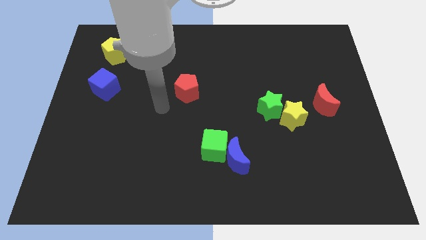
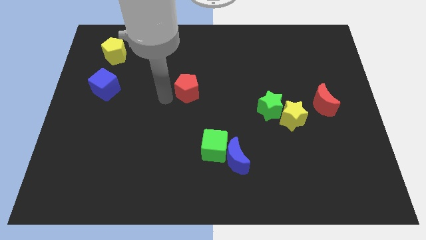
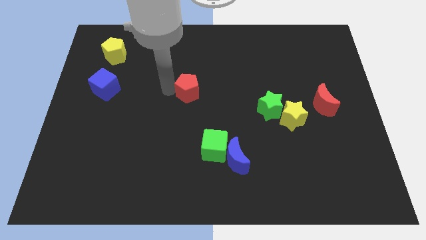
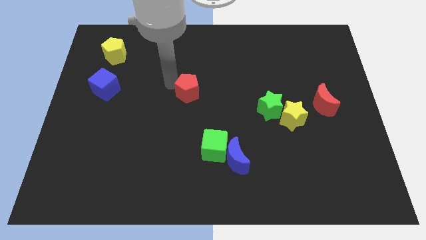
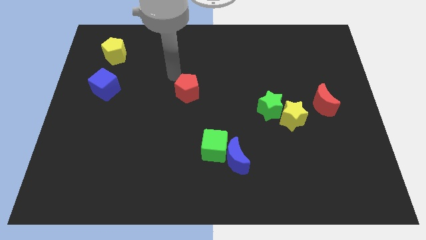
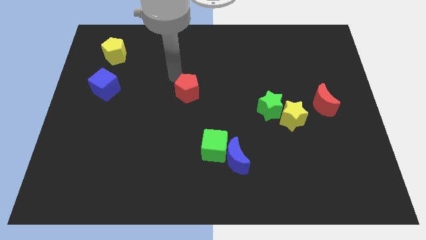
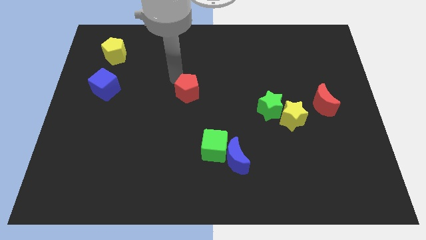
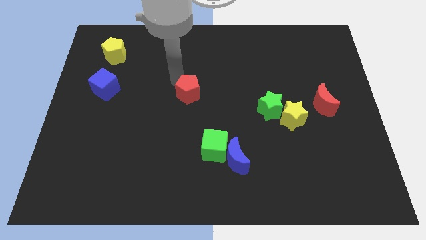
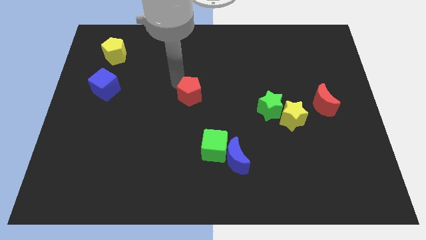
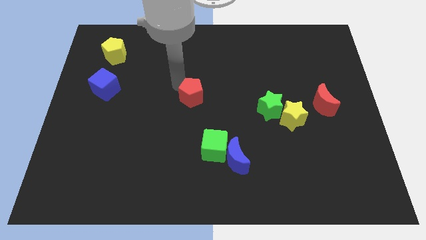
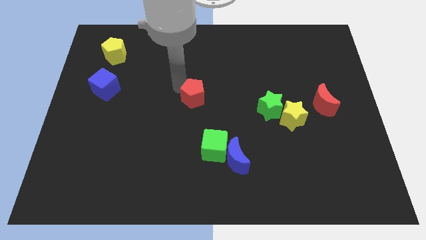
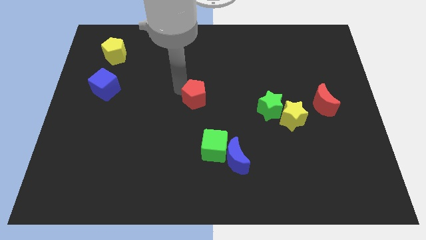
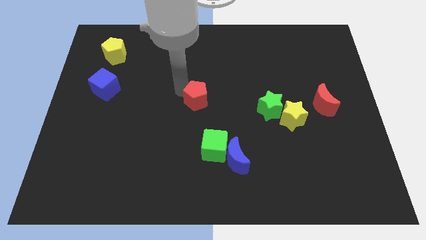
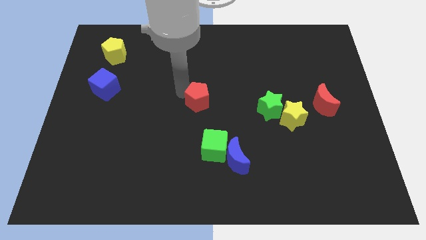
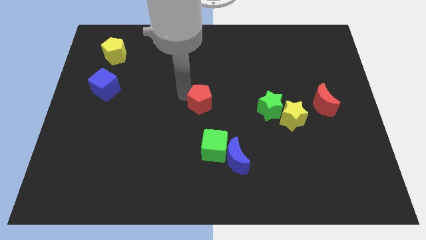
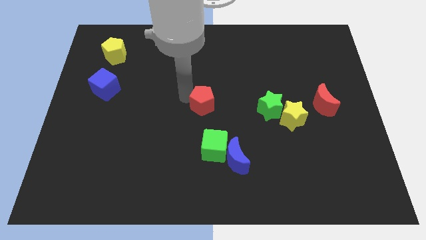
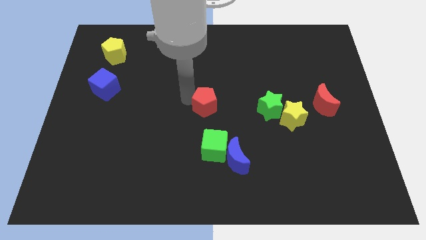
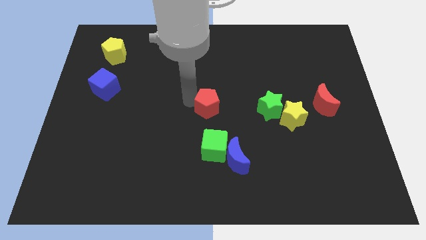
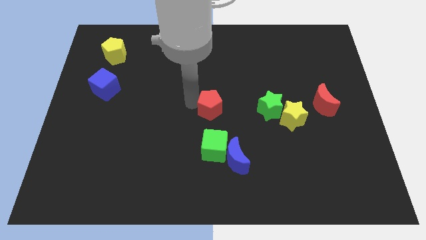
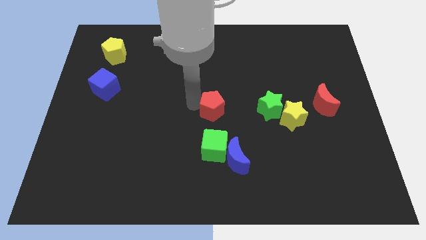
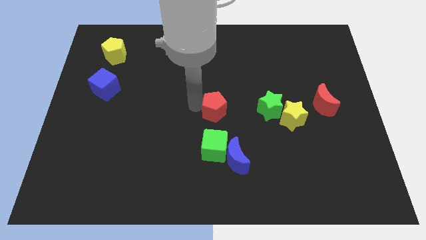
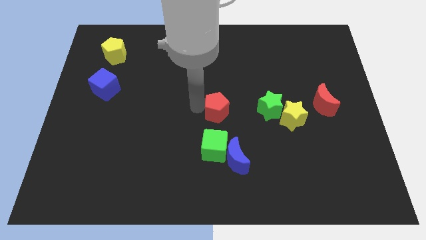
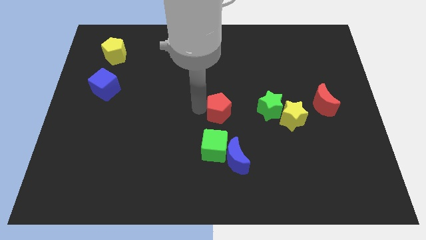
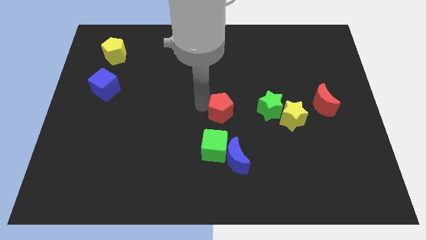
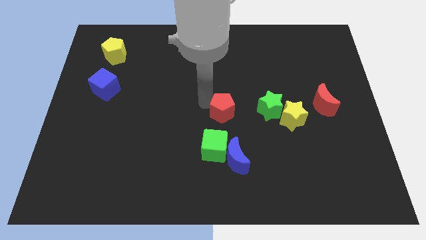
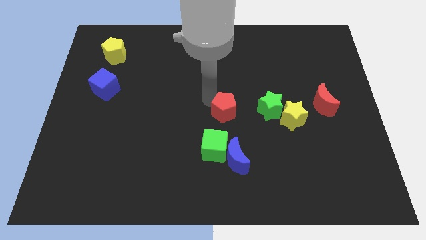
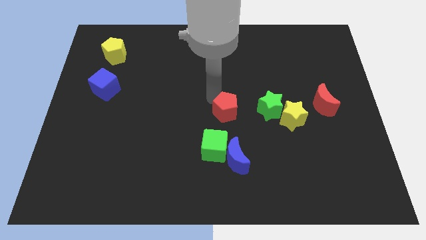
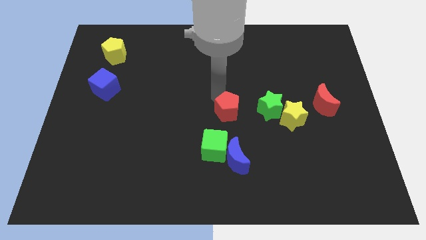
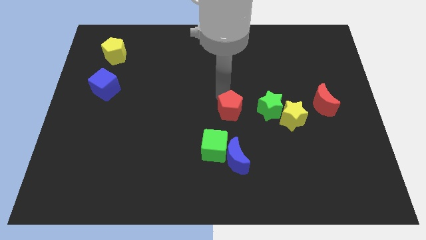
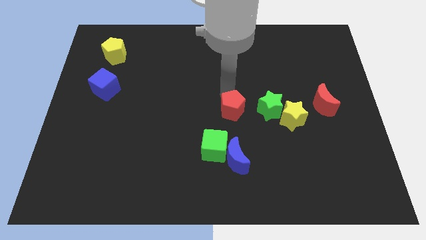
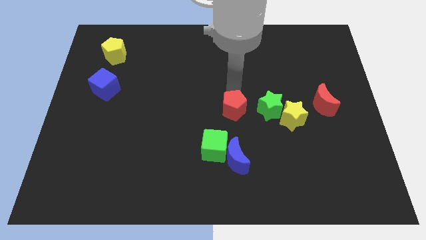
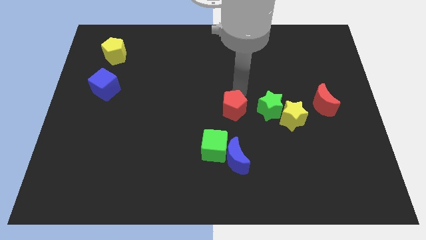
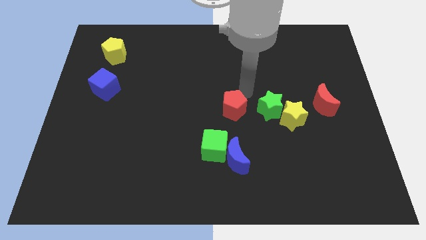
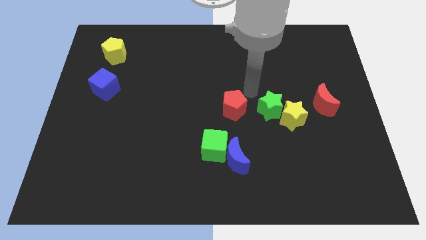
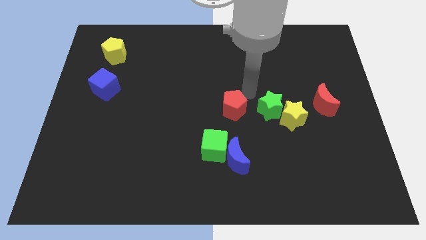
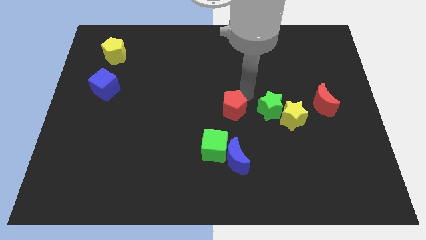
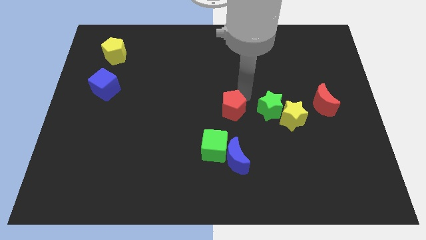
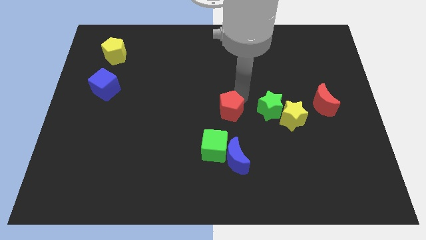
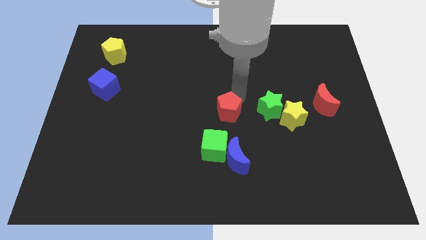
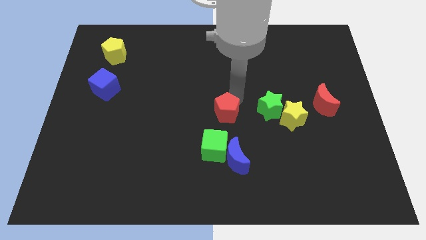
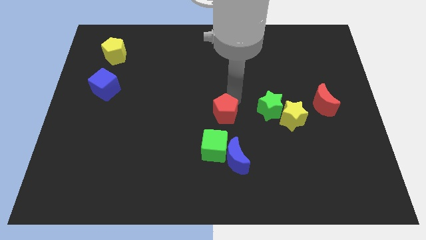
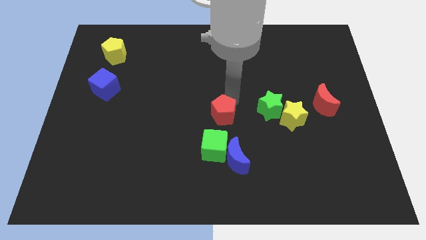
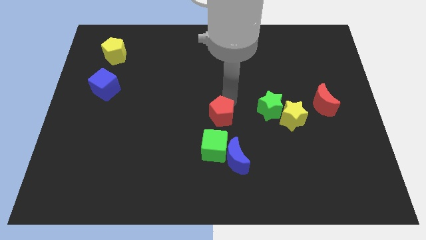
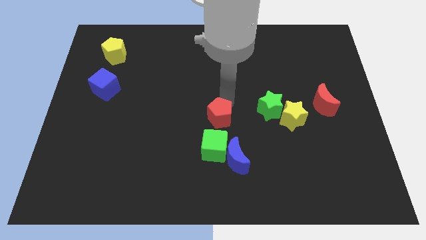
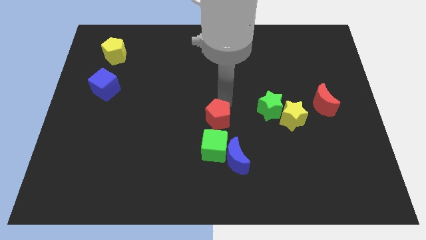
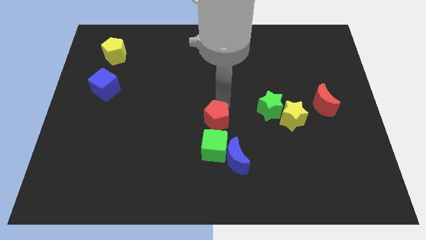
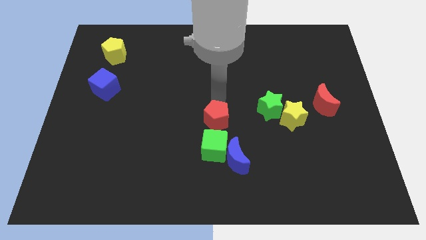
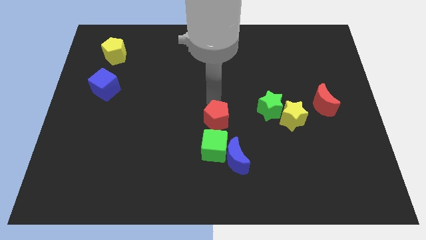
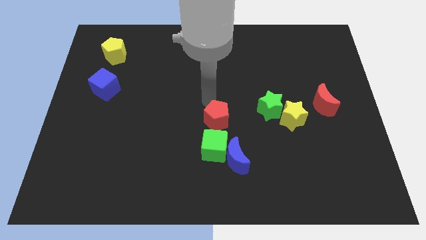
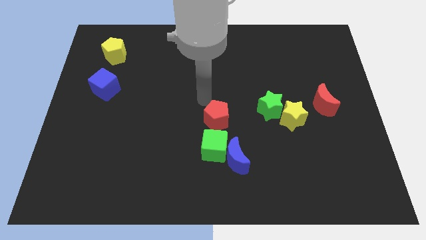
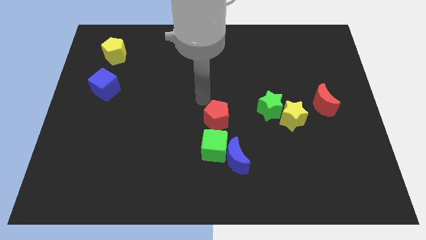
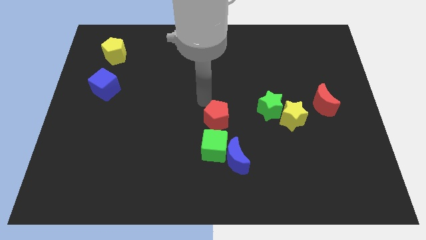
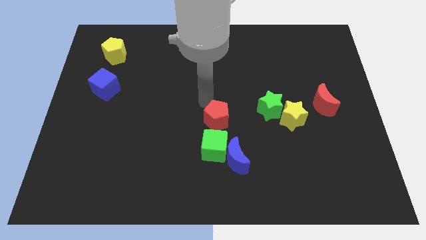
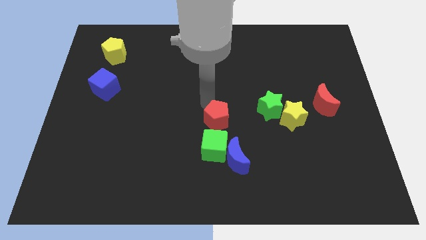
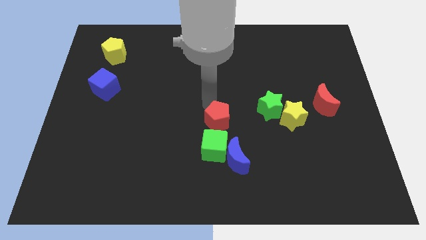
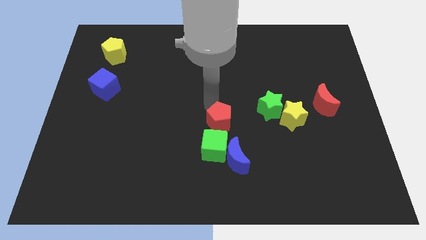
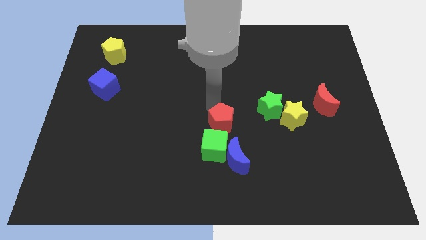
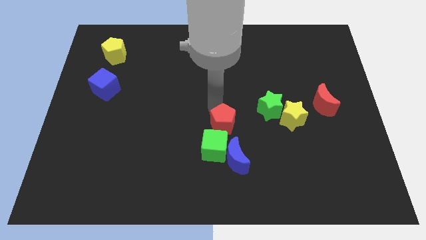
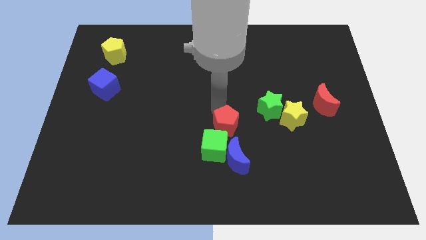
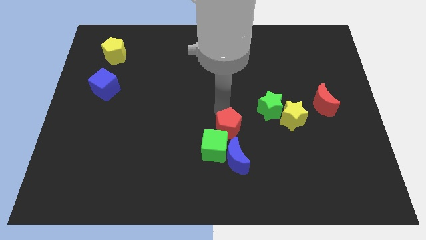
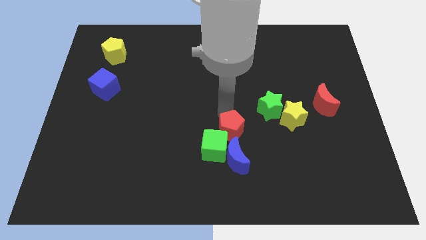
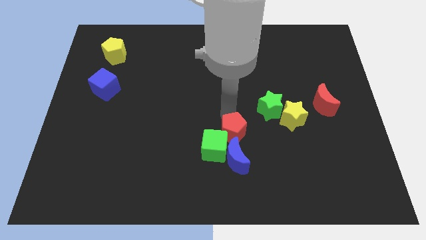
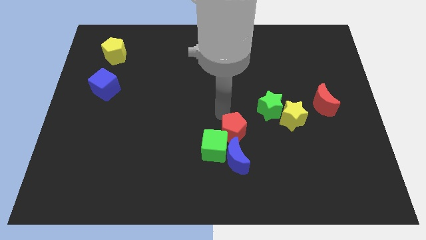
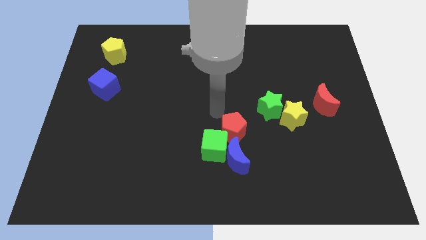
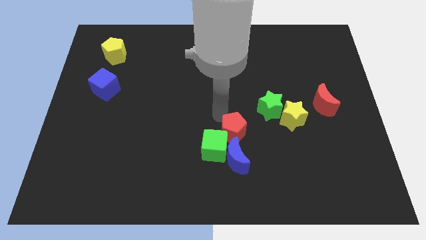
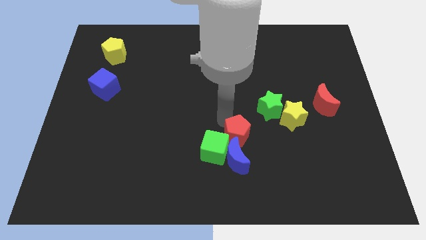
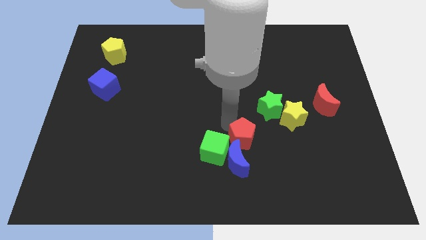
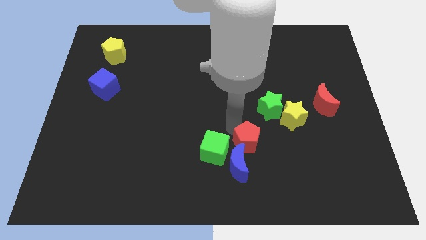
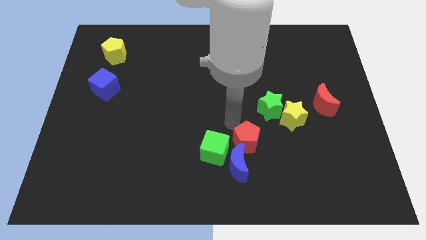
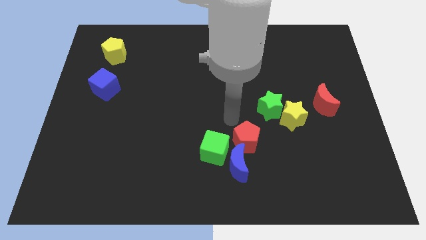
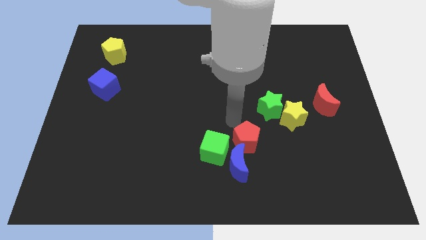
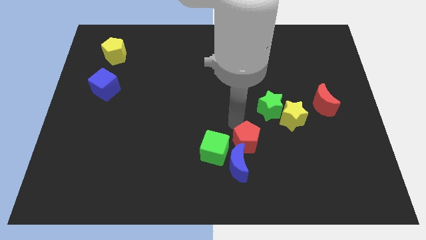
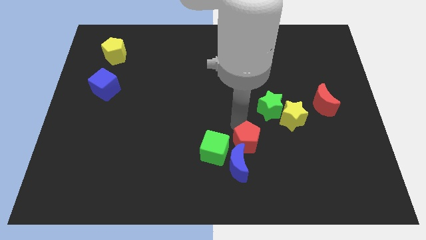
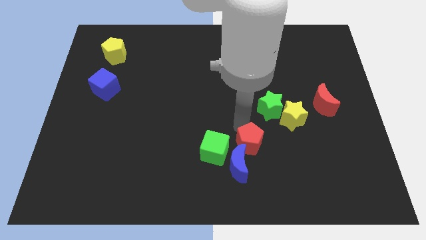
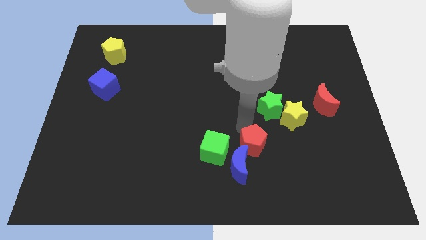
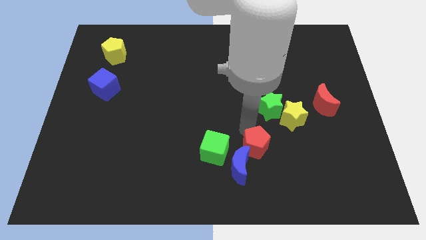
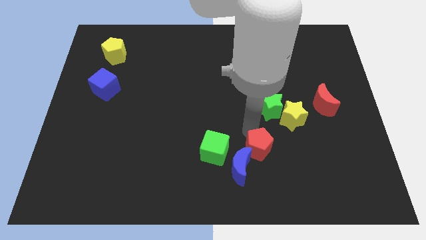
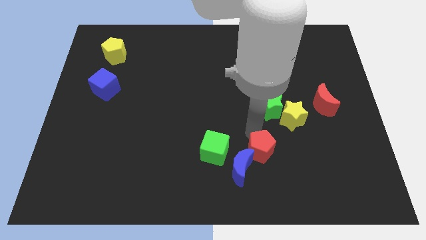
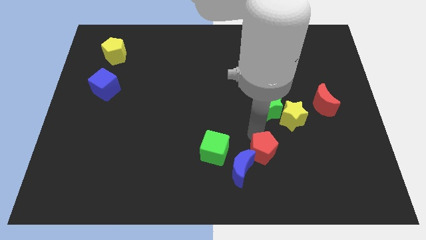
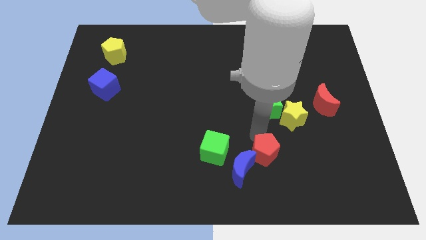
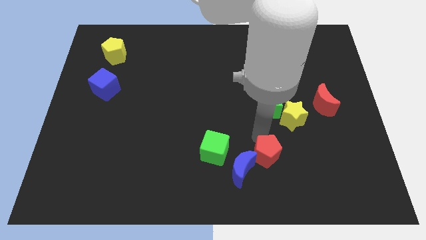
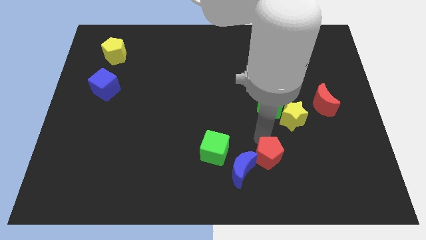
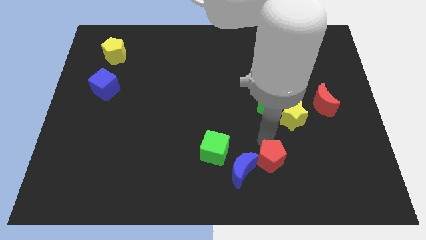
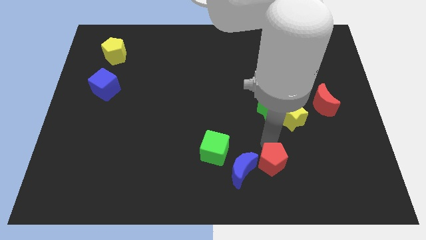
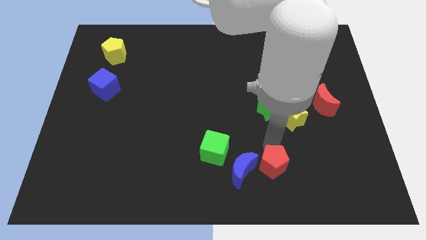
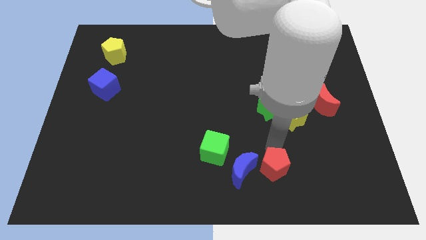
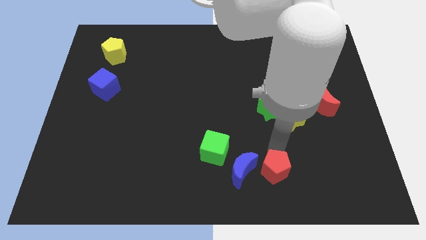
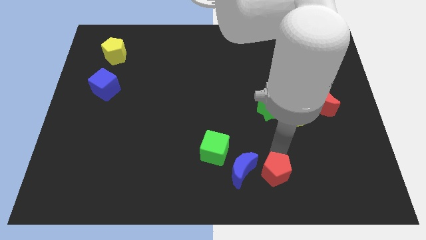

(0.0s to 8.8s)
put the red pentagon diagonally down and to the right of the blue moon
